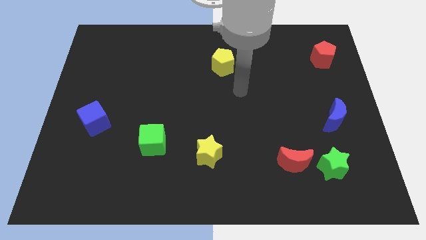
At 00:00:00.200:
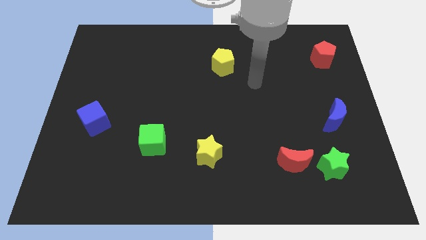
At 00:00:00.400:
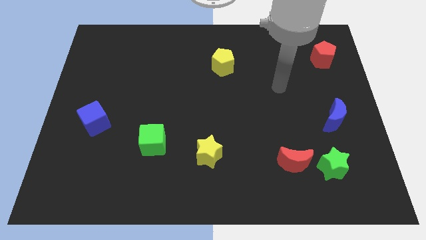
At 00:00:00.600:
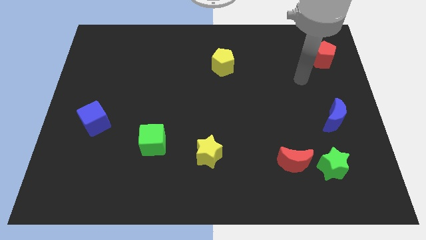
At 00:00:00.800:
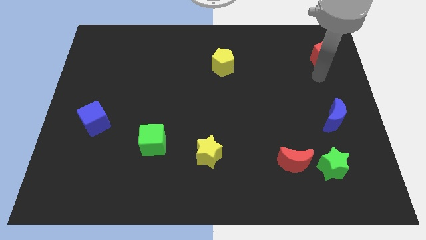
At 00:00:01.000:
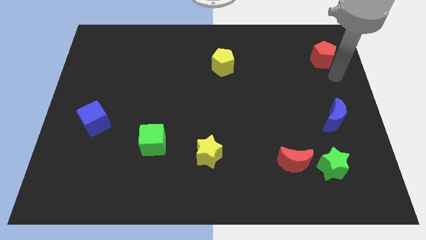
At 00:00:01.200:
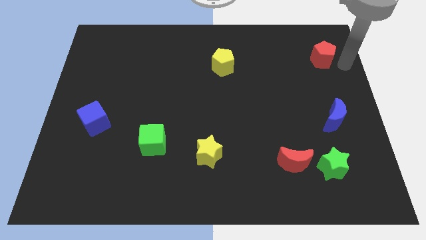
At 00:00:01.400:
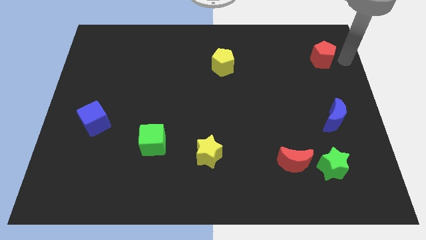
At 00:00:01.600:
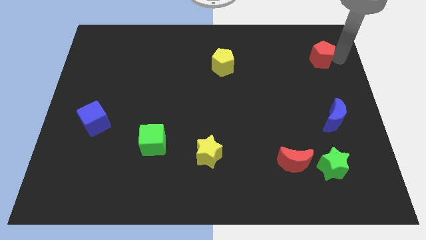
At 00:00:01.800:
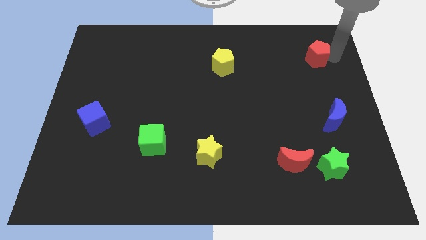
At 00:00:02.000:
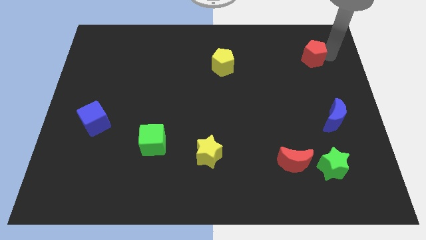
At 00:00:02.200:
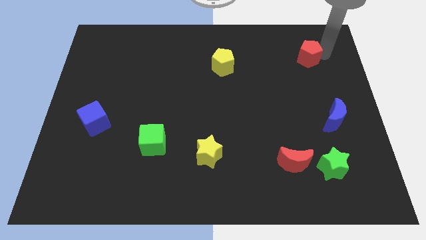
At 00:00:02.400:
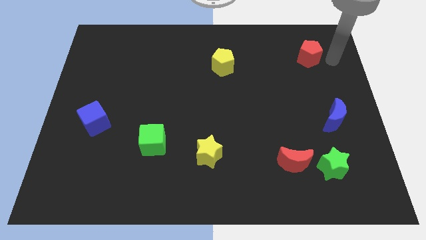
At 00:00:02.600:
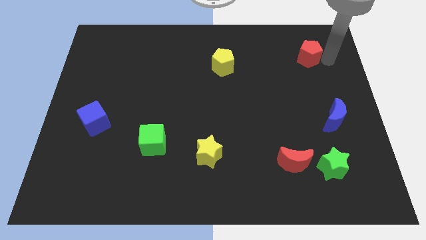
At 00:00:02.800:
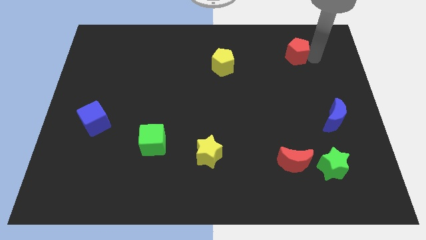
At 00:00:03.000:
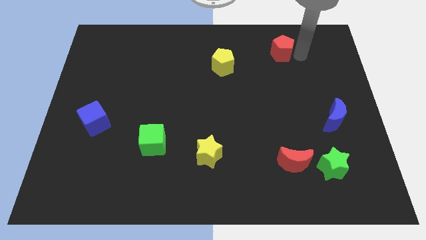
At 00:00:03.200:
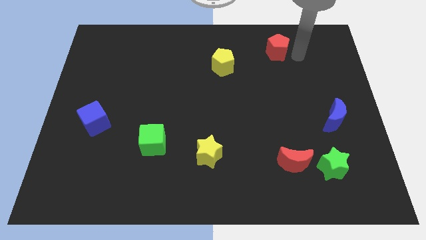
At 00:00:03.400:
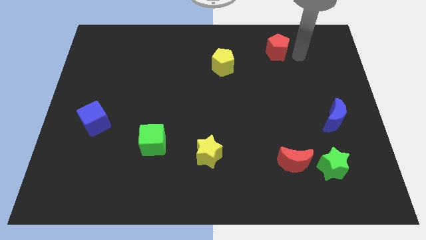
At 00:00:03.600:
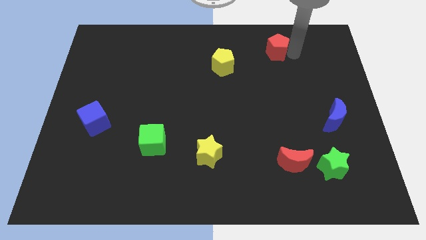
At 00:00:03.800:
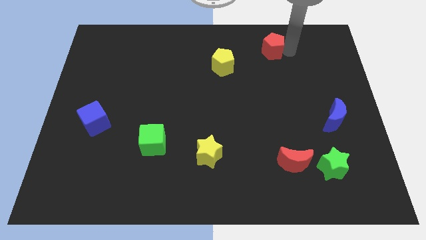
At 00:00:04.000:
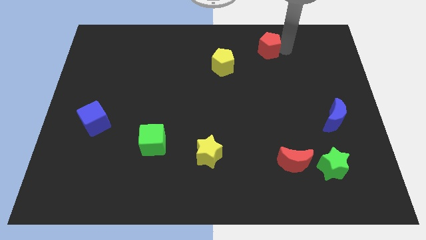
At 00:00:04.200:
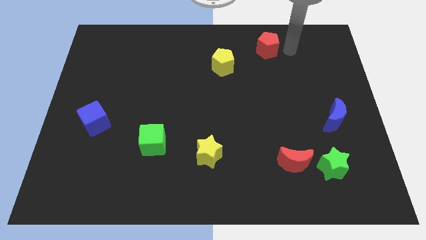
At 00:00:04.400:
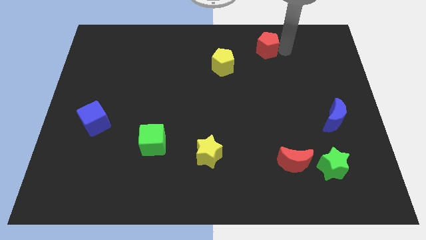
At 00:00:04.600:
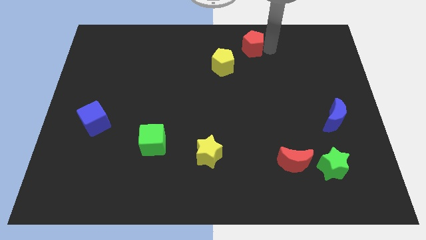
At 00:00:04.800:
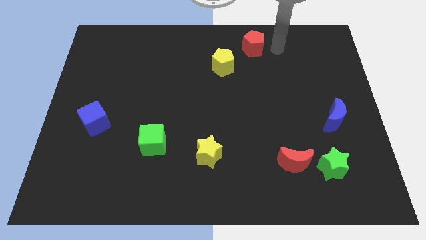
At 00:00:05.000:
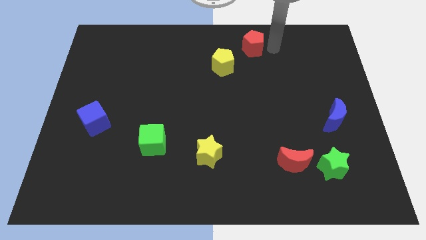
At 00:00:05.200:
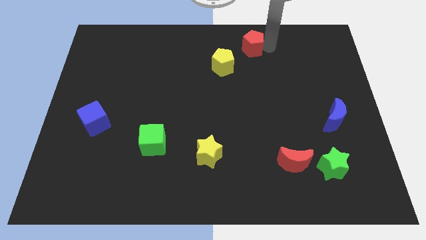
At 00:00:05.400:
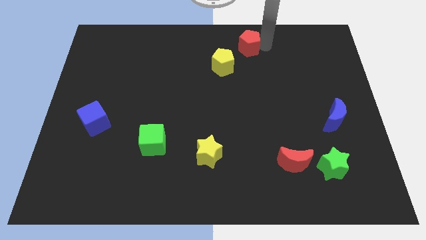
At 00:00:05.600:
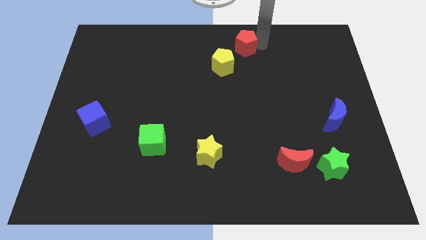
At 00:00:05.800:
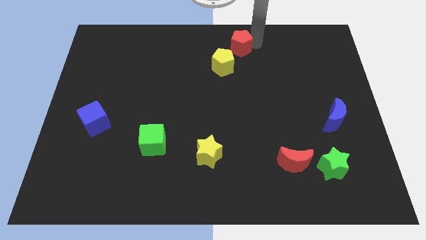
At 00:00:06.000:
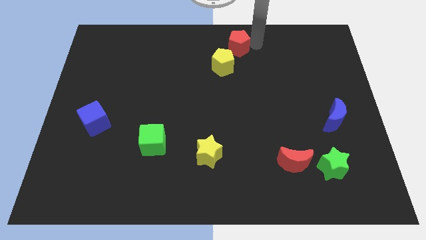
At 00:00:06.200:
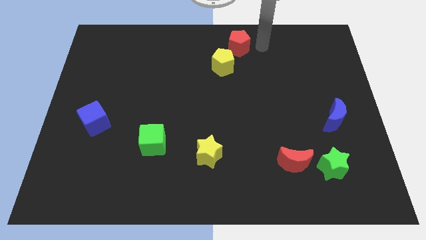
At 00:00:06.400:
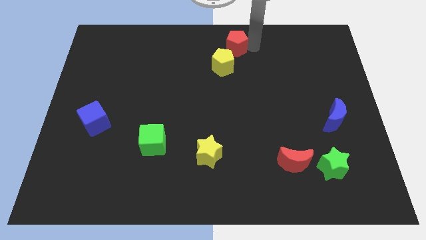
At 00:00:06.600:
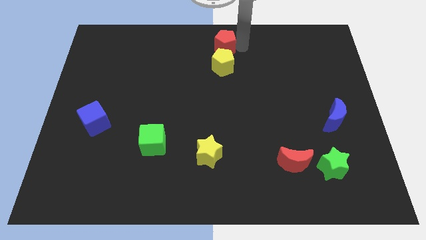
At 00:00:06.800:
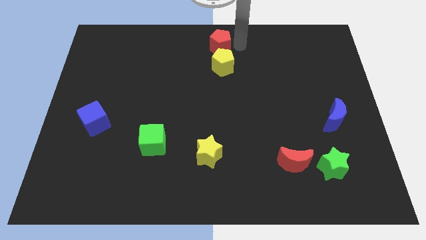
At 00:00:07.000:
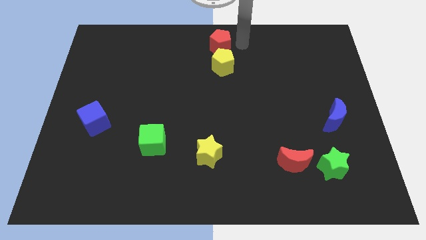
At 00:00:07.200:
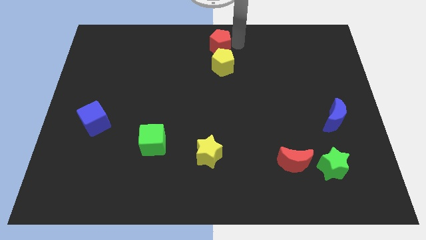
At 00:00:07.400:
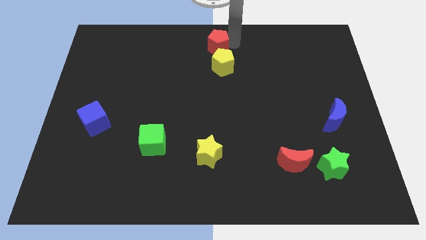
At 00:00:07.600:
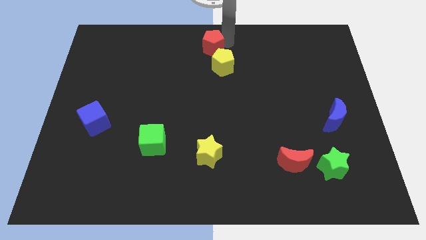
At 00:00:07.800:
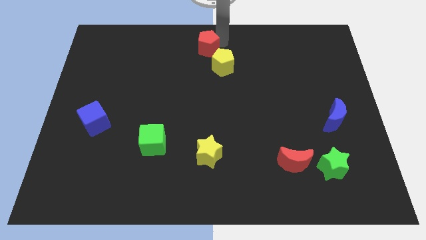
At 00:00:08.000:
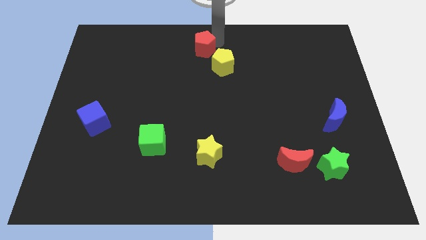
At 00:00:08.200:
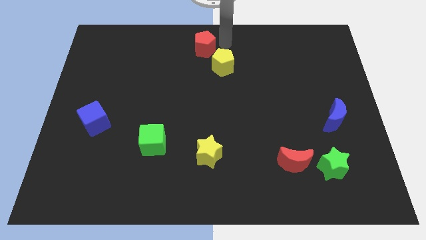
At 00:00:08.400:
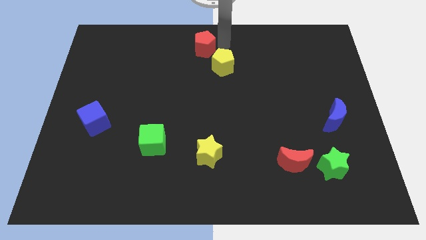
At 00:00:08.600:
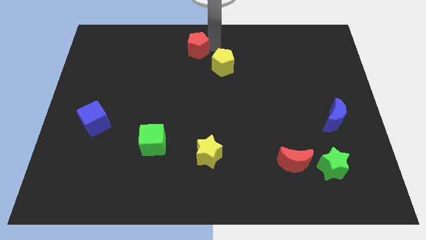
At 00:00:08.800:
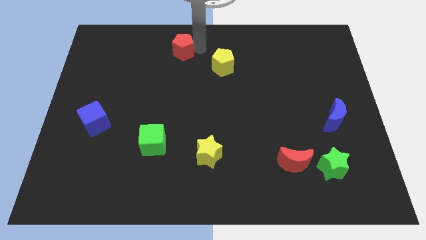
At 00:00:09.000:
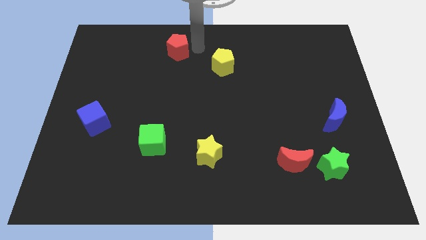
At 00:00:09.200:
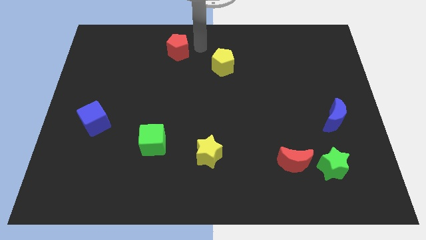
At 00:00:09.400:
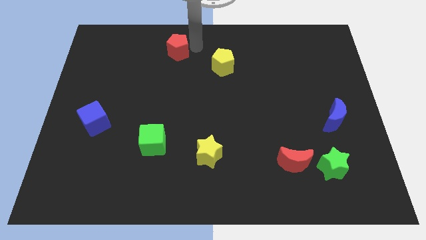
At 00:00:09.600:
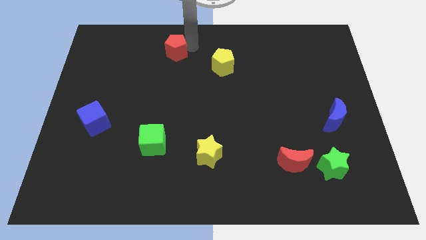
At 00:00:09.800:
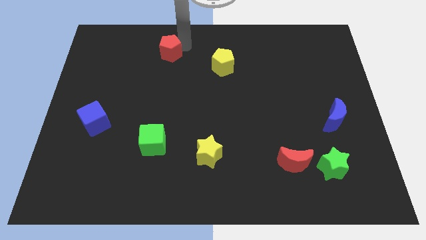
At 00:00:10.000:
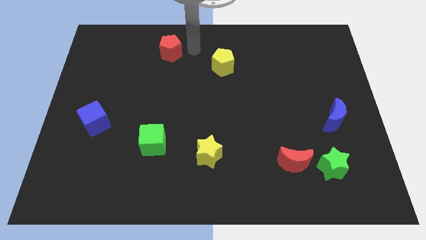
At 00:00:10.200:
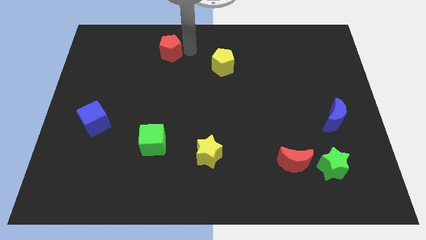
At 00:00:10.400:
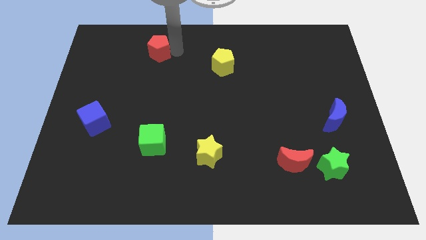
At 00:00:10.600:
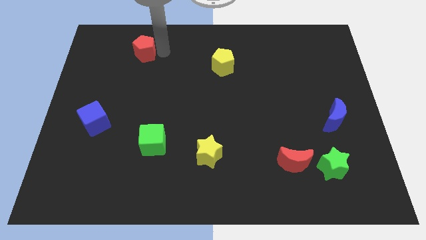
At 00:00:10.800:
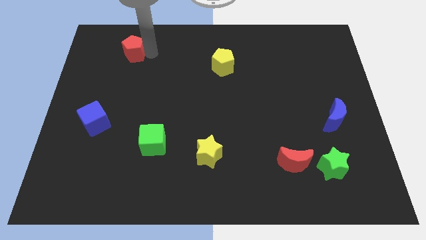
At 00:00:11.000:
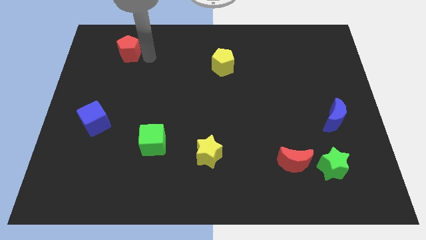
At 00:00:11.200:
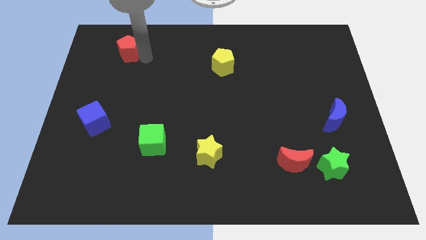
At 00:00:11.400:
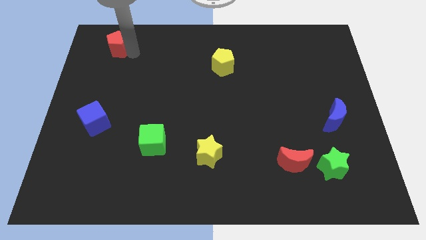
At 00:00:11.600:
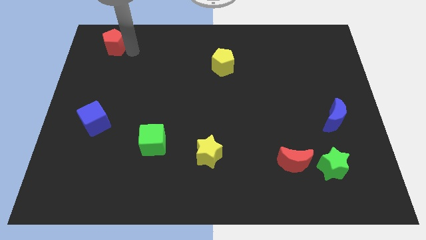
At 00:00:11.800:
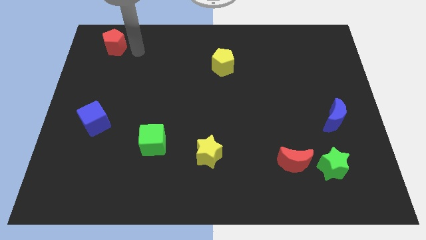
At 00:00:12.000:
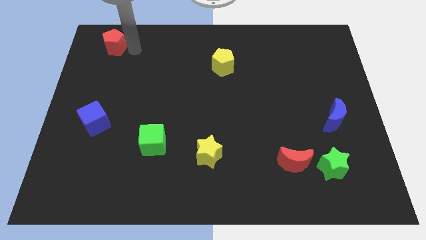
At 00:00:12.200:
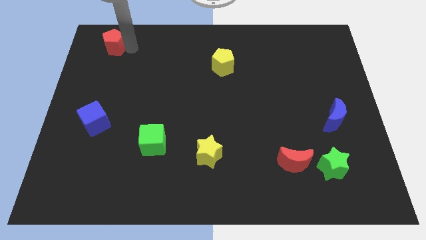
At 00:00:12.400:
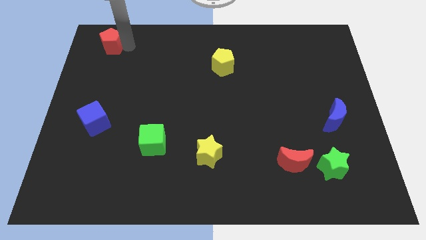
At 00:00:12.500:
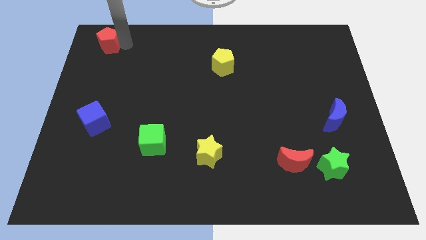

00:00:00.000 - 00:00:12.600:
put the red pentagon to the top left corner
